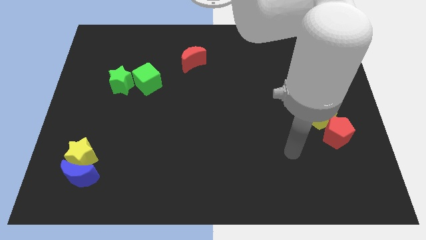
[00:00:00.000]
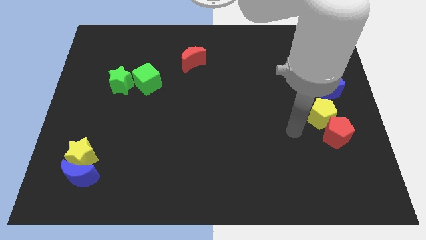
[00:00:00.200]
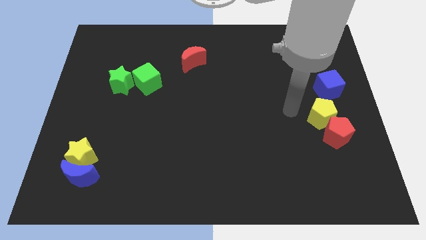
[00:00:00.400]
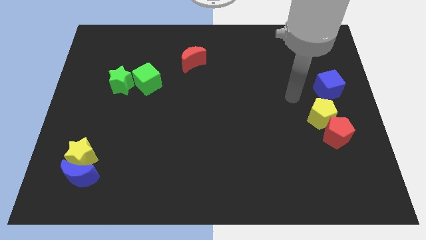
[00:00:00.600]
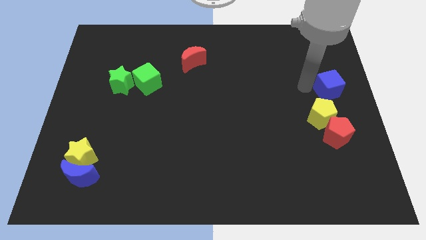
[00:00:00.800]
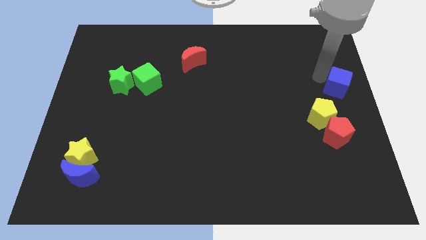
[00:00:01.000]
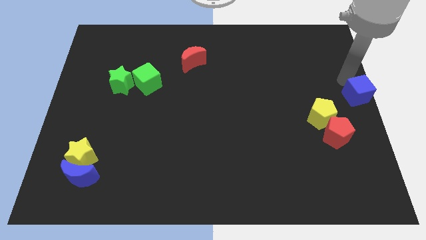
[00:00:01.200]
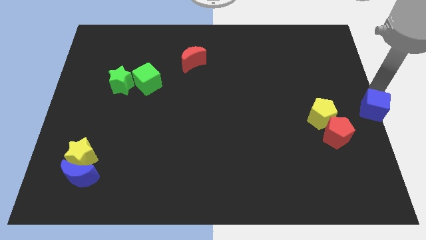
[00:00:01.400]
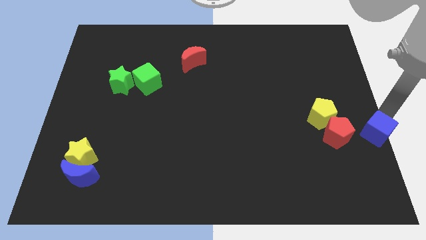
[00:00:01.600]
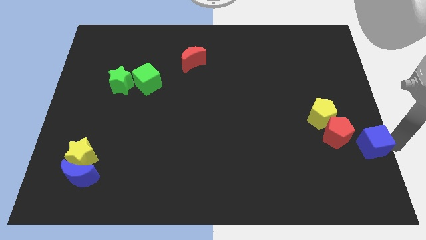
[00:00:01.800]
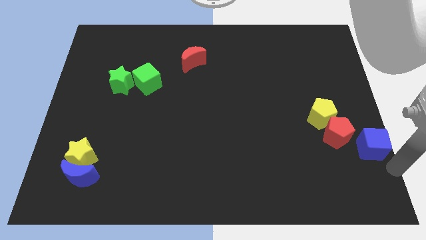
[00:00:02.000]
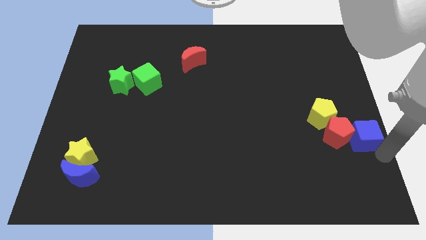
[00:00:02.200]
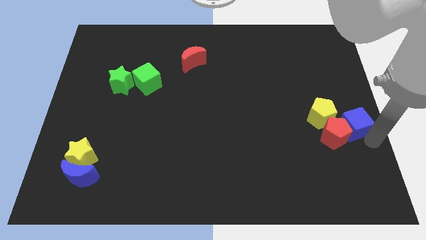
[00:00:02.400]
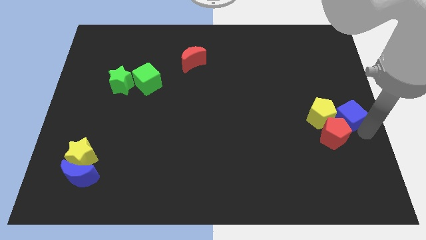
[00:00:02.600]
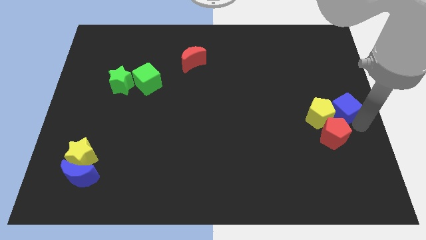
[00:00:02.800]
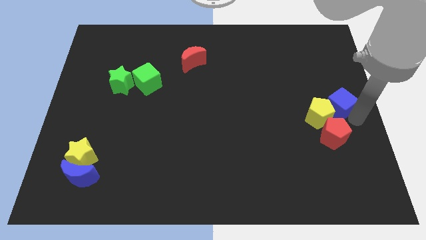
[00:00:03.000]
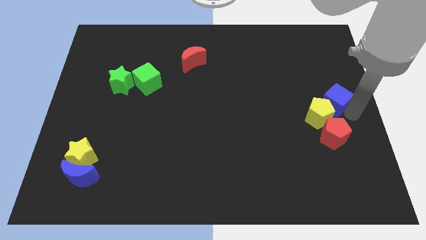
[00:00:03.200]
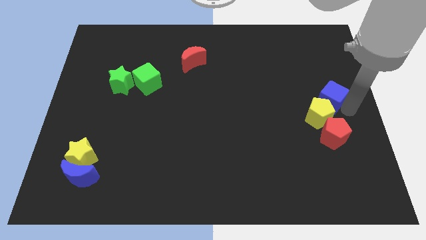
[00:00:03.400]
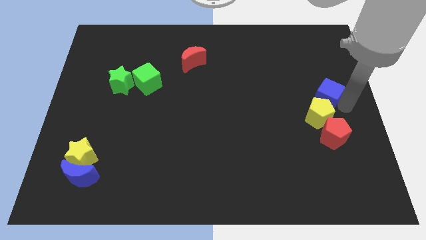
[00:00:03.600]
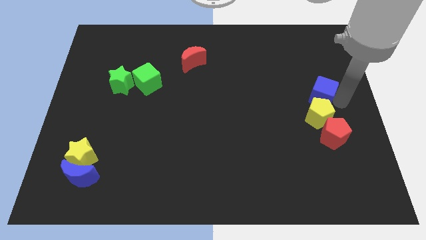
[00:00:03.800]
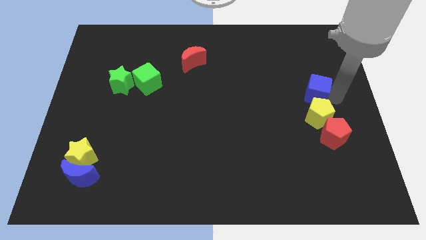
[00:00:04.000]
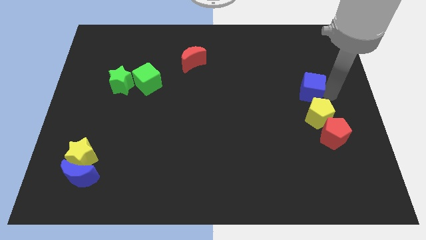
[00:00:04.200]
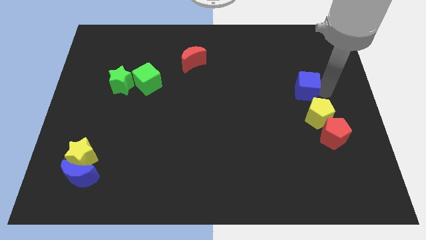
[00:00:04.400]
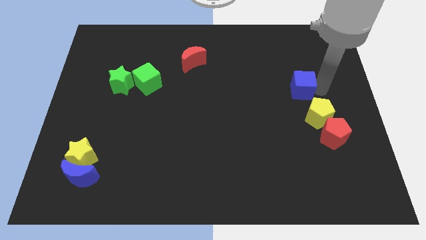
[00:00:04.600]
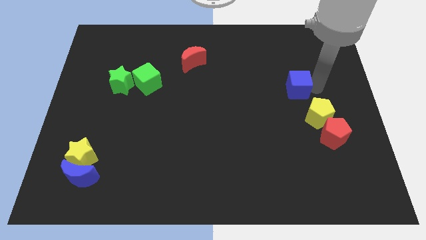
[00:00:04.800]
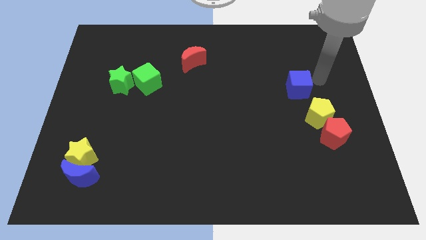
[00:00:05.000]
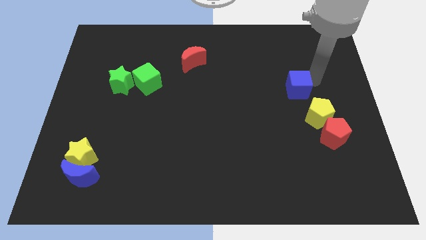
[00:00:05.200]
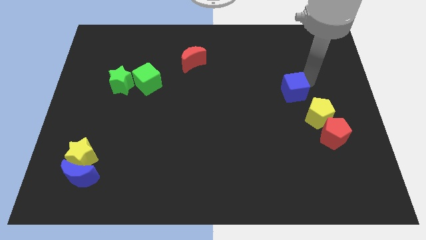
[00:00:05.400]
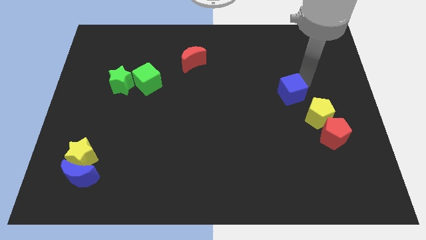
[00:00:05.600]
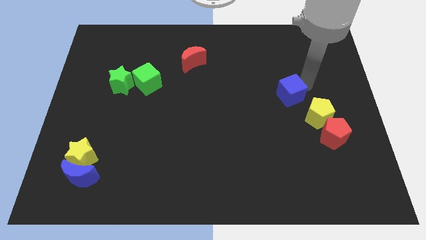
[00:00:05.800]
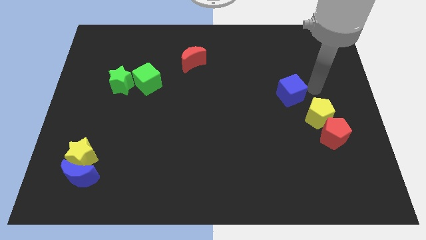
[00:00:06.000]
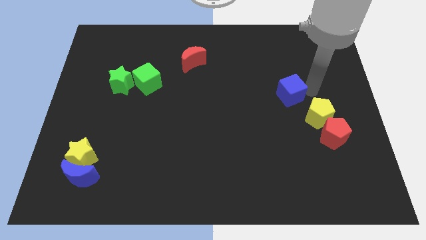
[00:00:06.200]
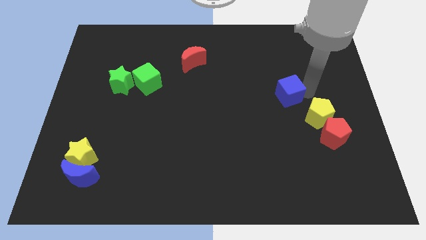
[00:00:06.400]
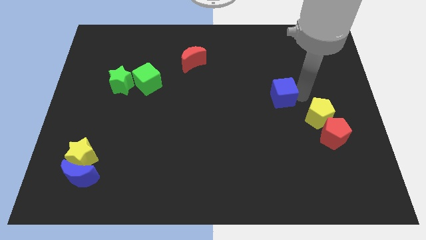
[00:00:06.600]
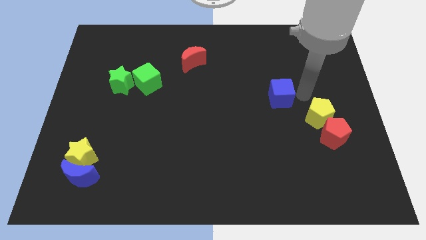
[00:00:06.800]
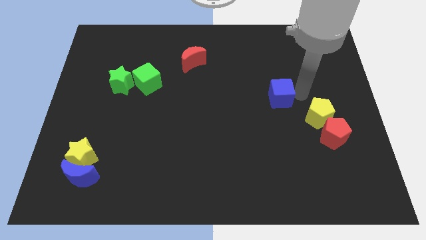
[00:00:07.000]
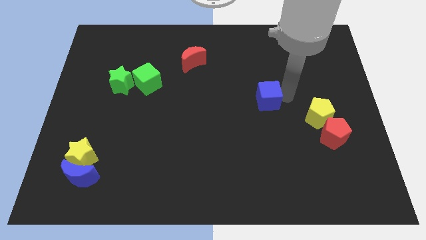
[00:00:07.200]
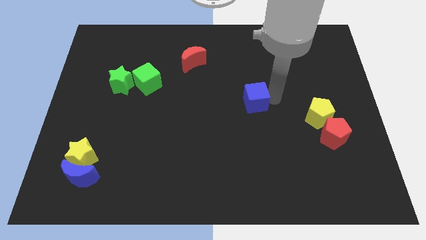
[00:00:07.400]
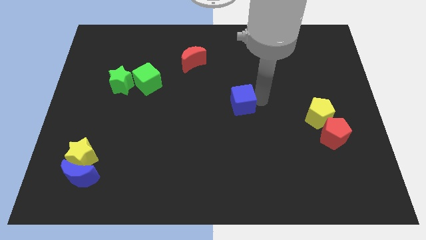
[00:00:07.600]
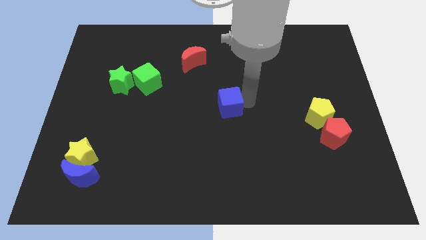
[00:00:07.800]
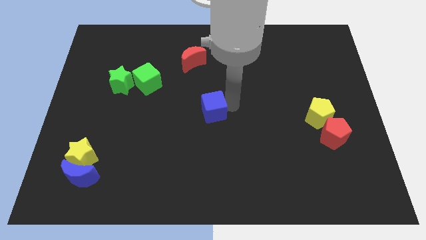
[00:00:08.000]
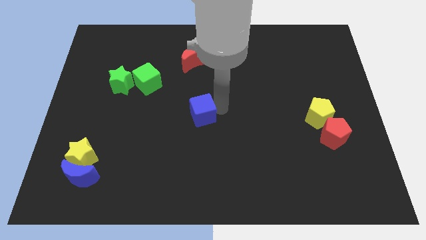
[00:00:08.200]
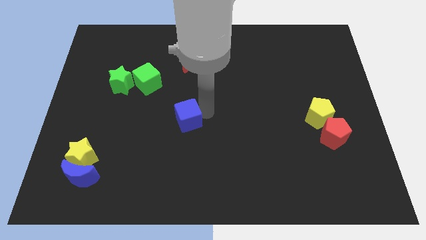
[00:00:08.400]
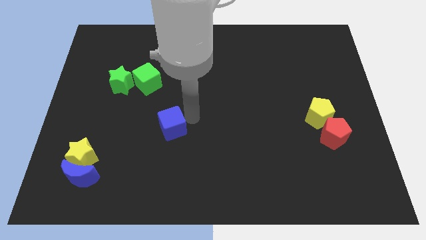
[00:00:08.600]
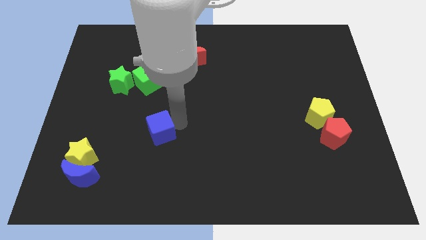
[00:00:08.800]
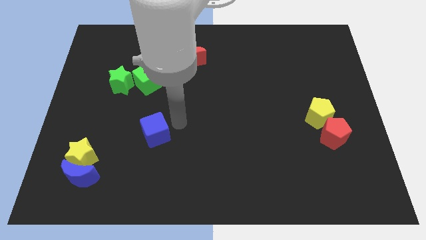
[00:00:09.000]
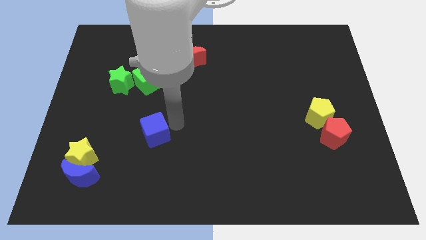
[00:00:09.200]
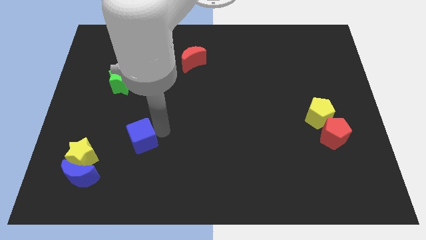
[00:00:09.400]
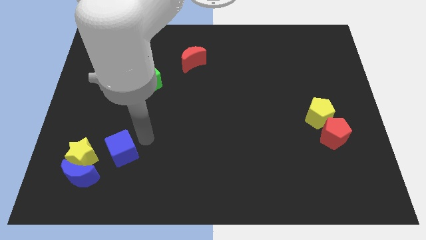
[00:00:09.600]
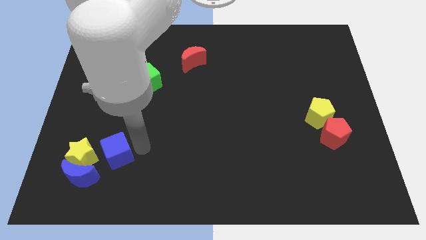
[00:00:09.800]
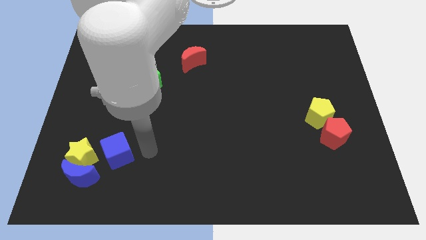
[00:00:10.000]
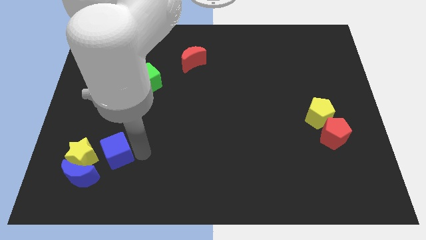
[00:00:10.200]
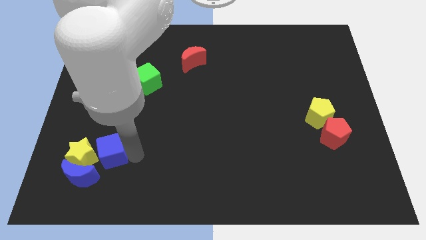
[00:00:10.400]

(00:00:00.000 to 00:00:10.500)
move the blue cube next to the yellow star

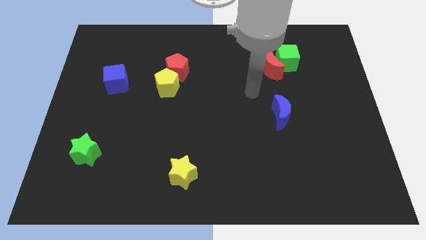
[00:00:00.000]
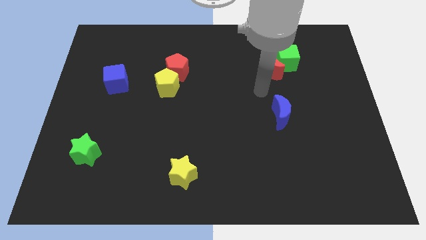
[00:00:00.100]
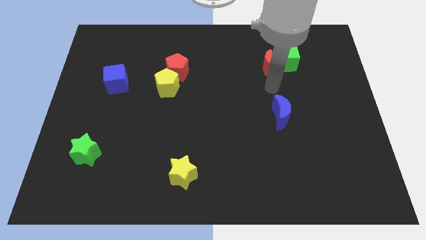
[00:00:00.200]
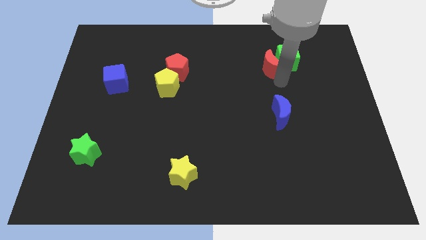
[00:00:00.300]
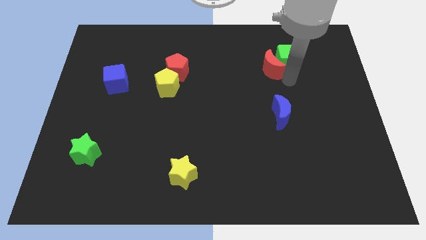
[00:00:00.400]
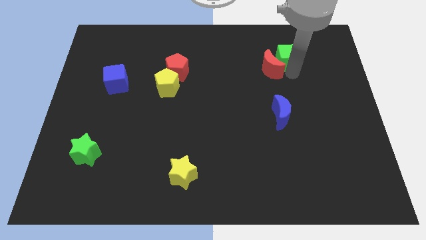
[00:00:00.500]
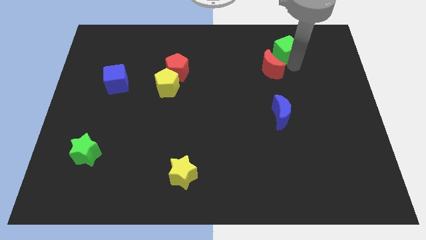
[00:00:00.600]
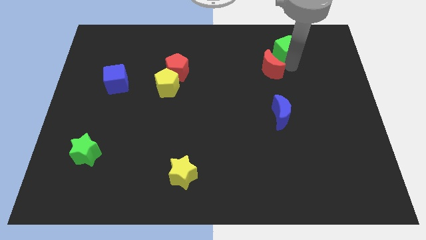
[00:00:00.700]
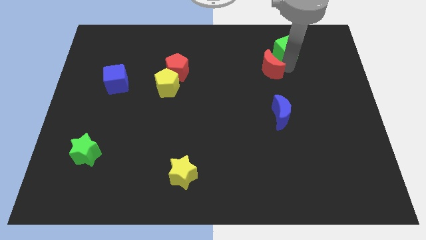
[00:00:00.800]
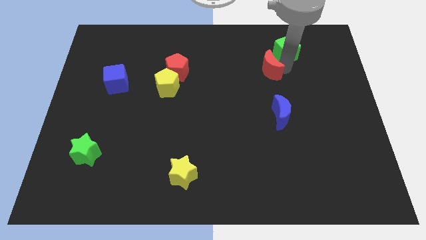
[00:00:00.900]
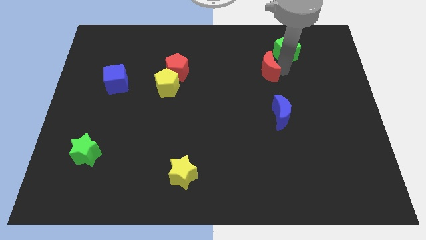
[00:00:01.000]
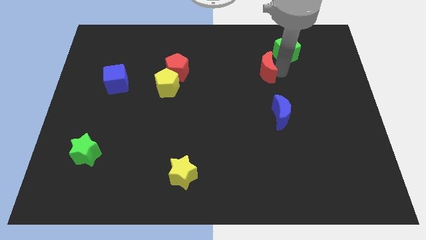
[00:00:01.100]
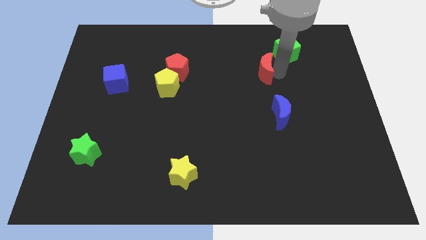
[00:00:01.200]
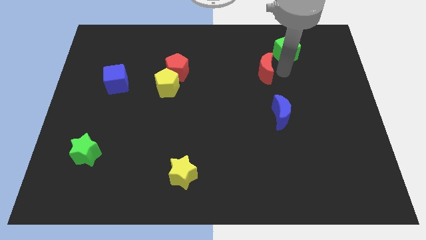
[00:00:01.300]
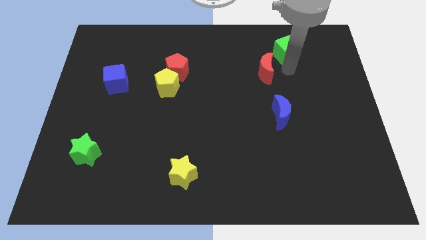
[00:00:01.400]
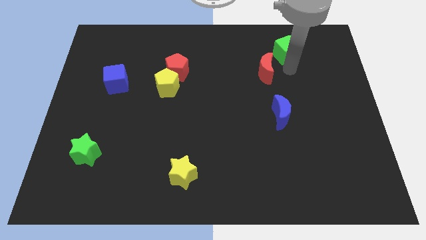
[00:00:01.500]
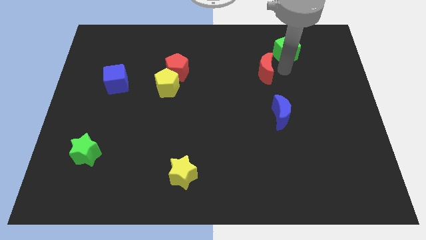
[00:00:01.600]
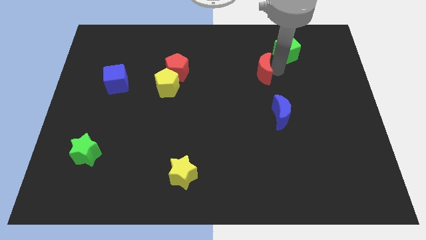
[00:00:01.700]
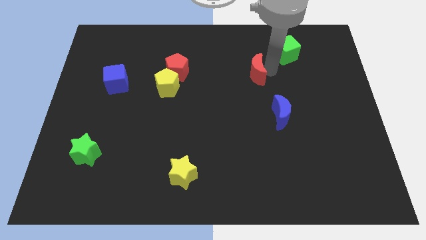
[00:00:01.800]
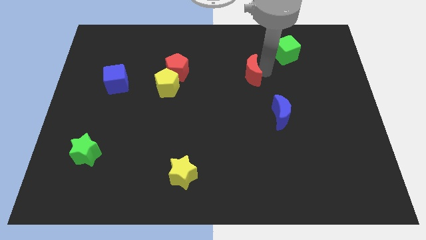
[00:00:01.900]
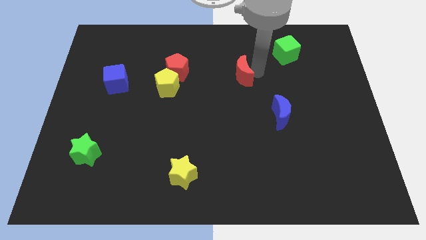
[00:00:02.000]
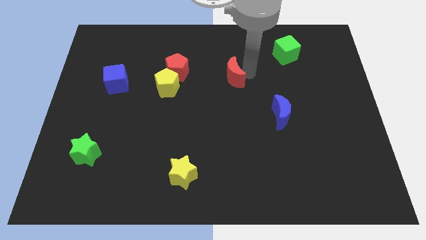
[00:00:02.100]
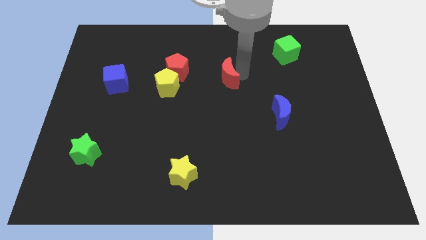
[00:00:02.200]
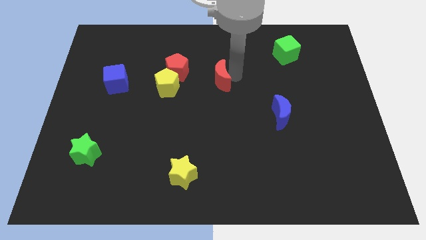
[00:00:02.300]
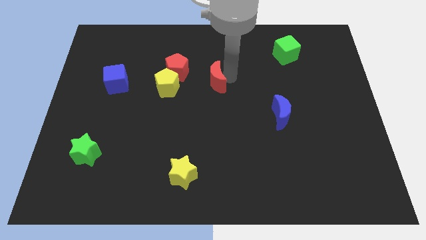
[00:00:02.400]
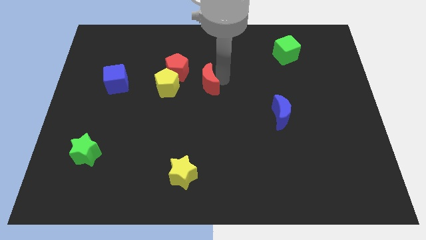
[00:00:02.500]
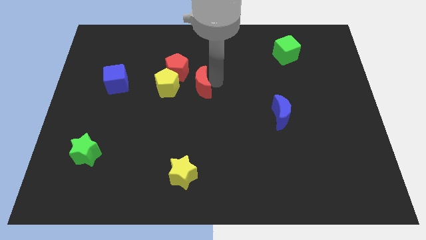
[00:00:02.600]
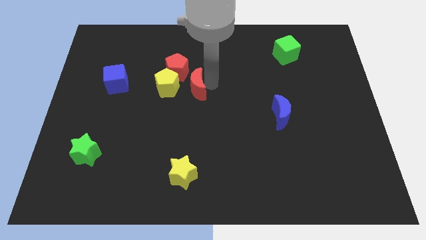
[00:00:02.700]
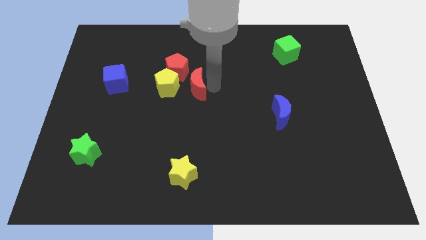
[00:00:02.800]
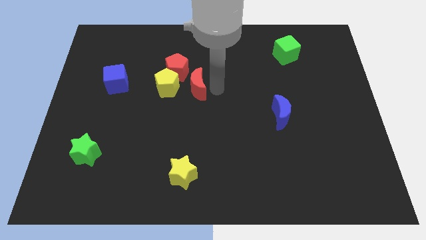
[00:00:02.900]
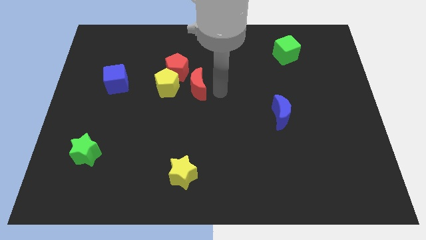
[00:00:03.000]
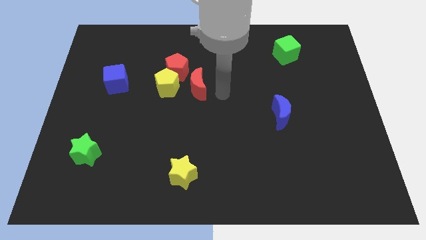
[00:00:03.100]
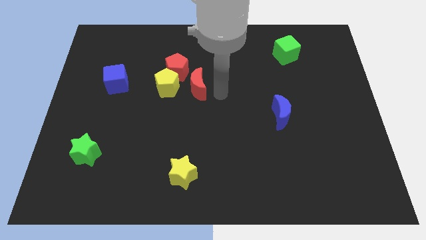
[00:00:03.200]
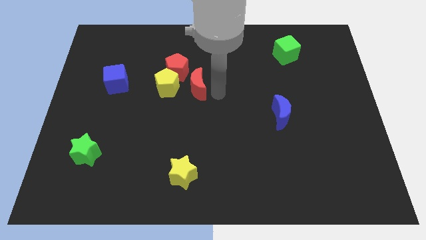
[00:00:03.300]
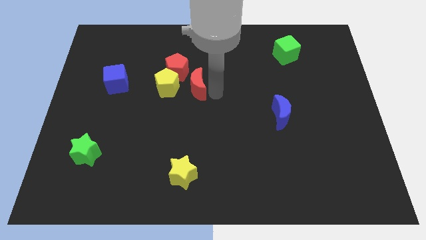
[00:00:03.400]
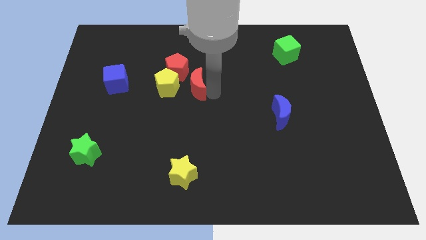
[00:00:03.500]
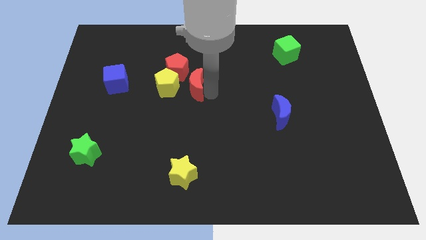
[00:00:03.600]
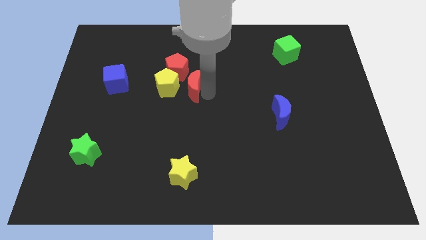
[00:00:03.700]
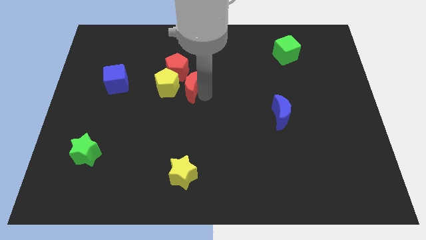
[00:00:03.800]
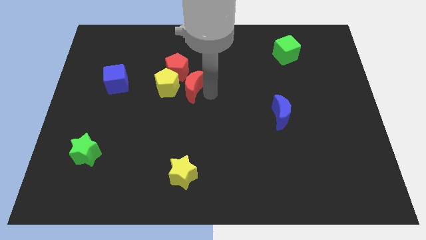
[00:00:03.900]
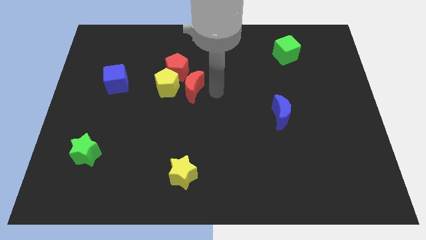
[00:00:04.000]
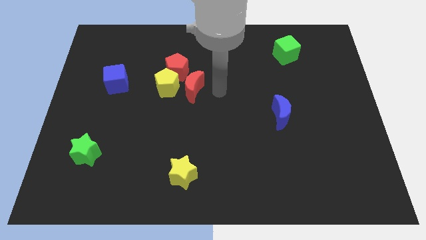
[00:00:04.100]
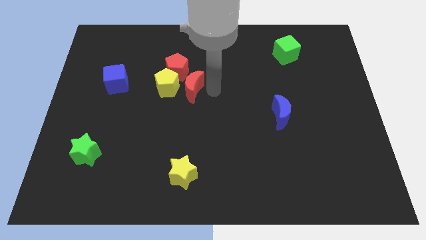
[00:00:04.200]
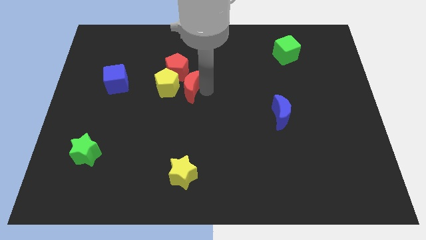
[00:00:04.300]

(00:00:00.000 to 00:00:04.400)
push the red moon to the yellow pentagon
